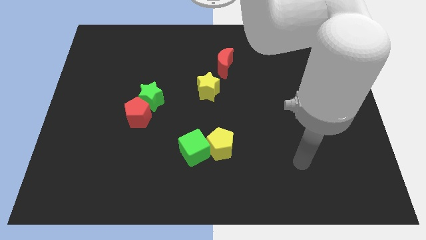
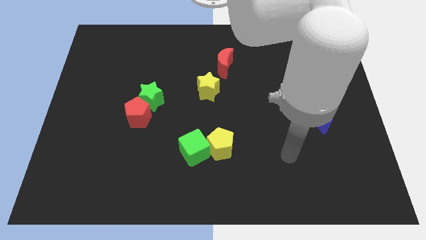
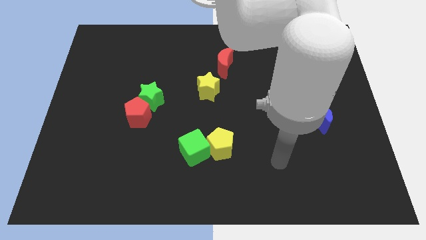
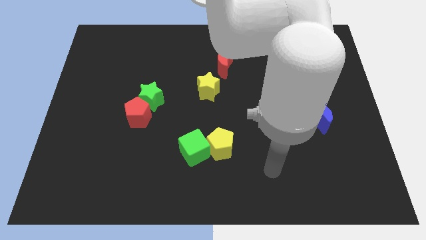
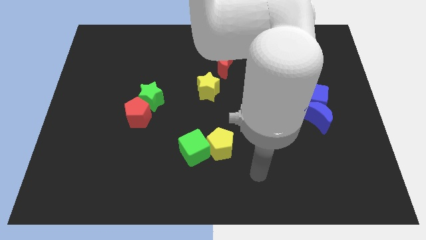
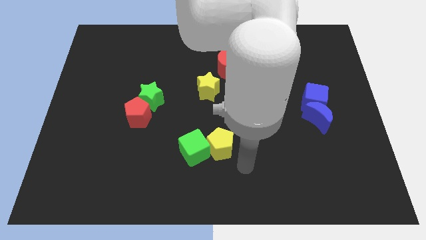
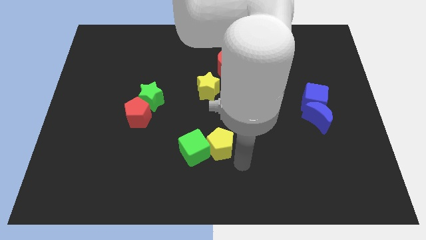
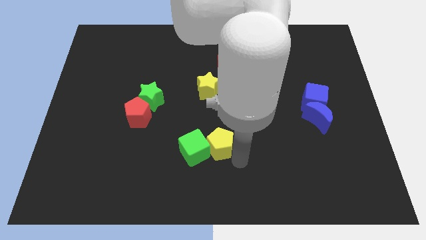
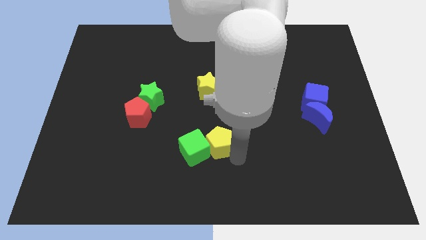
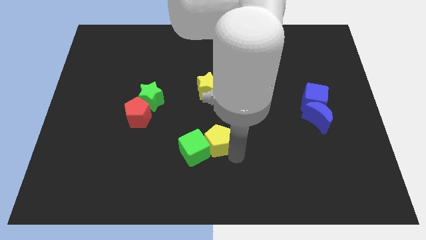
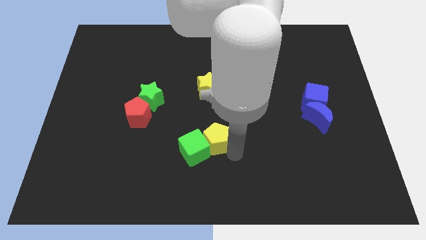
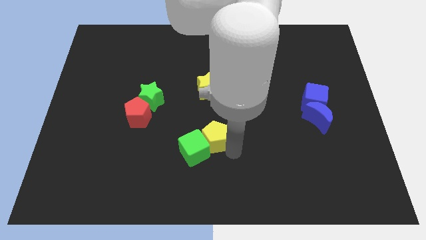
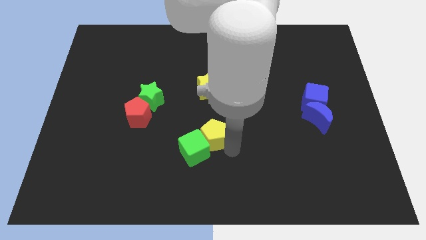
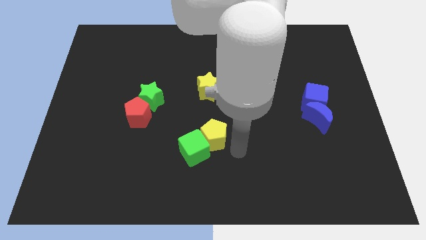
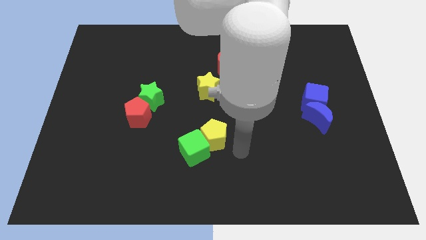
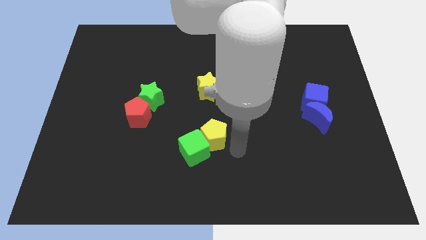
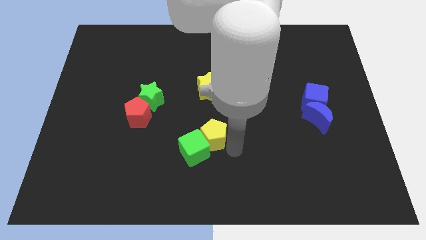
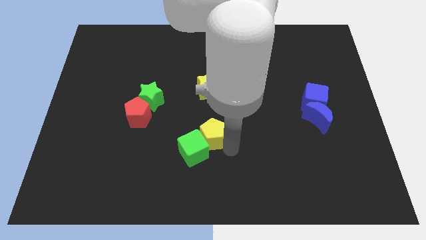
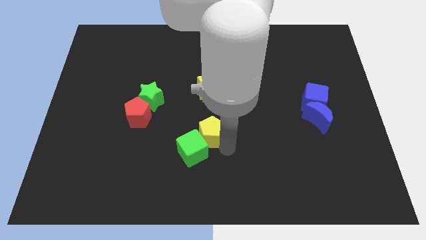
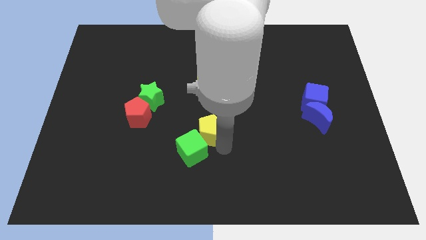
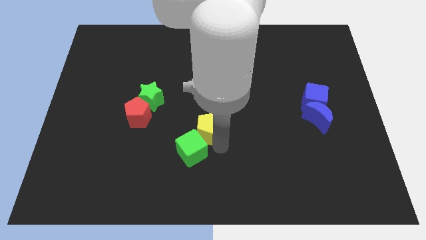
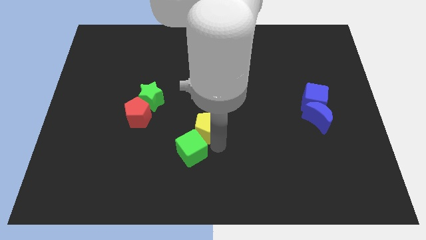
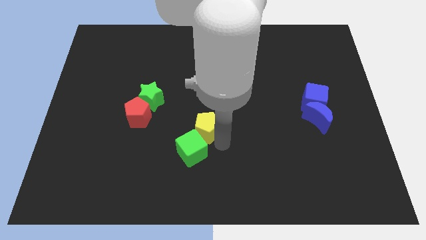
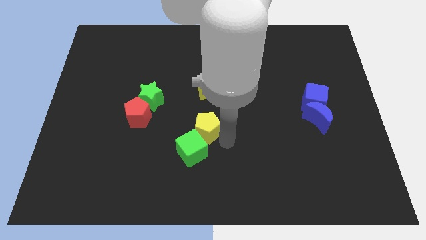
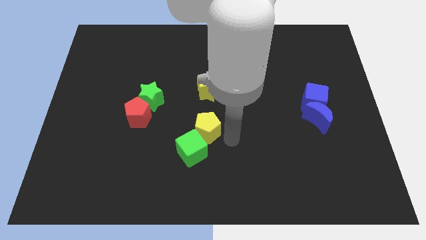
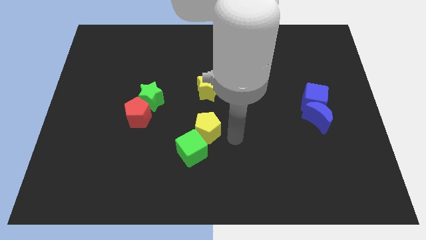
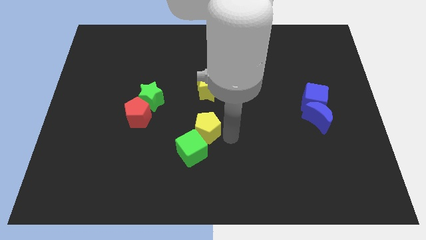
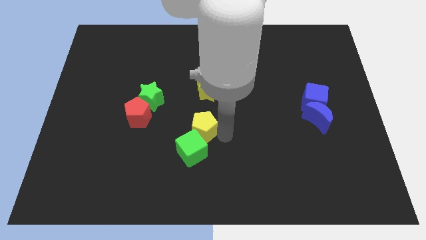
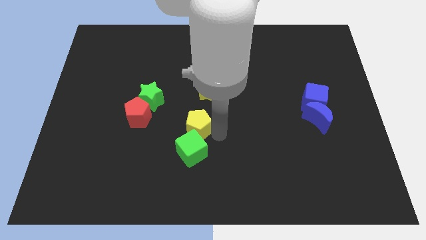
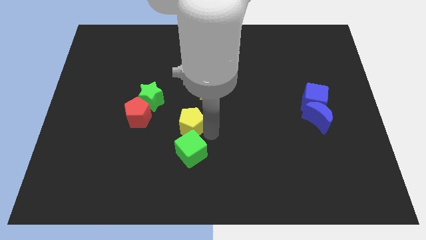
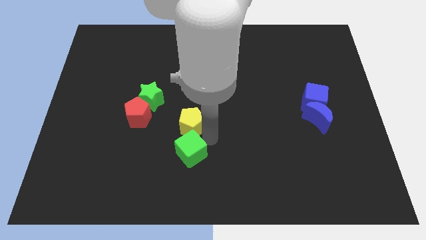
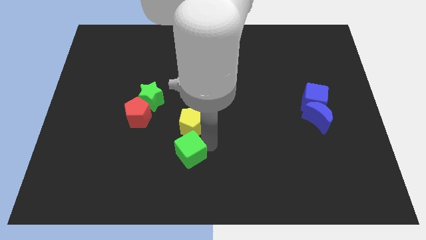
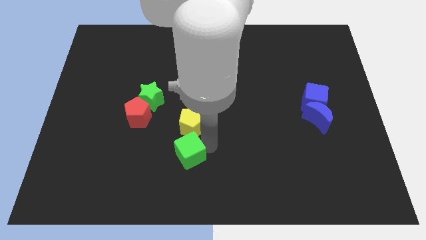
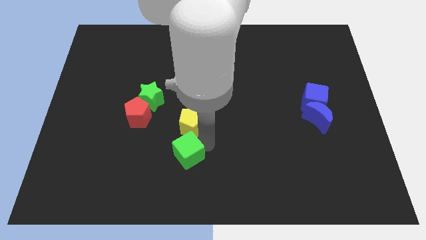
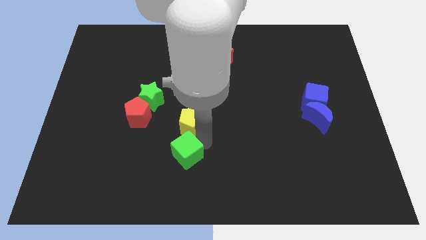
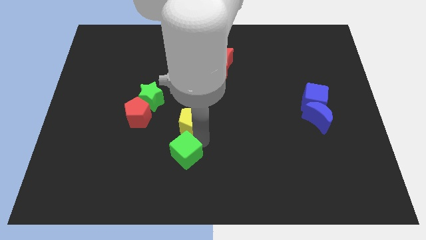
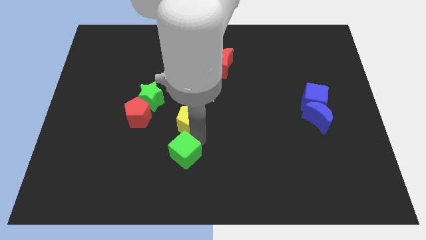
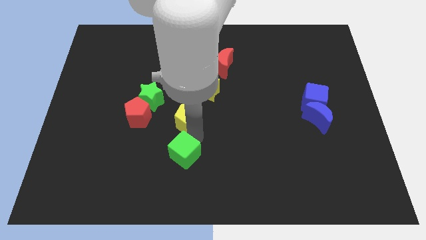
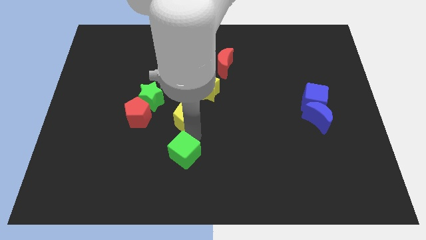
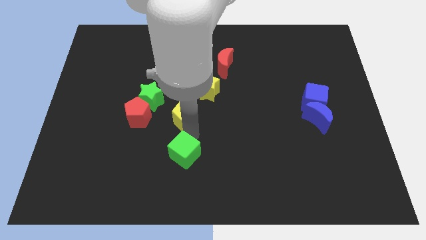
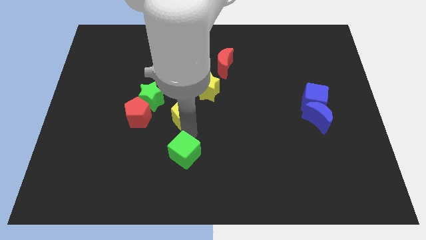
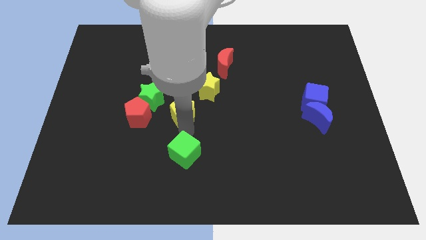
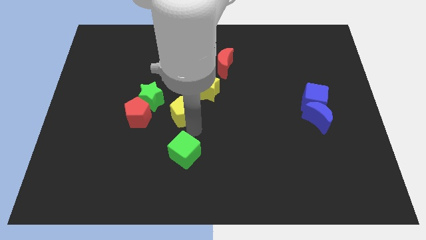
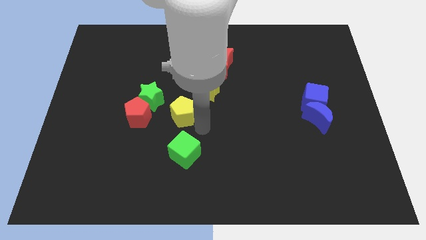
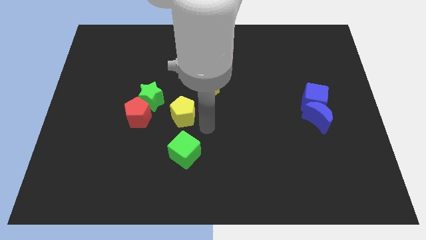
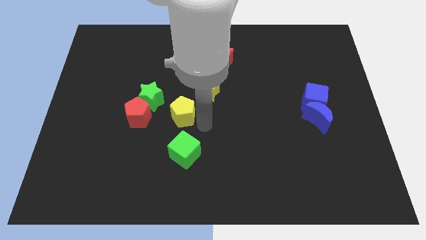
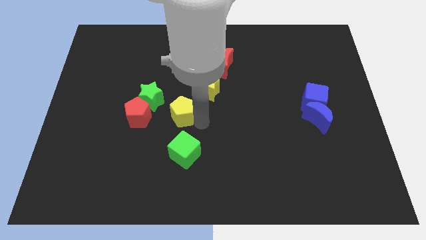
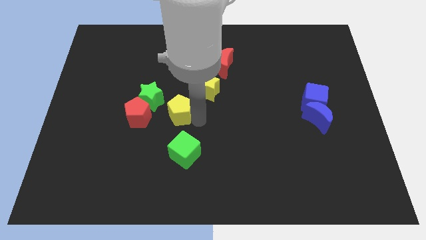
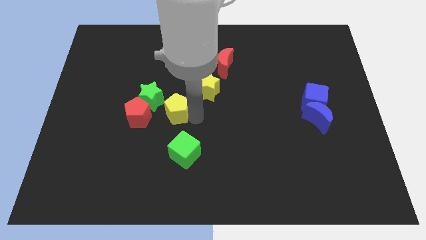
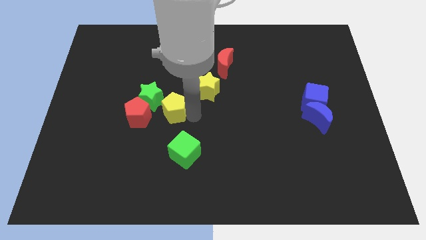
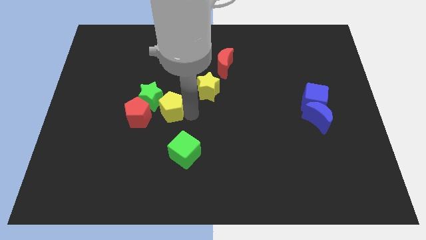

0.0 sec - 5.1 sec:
push the yellow pentagon towards the green star
